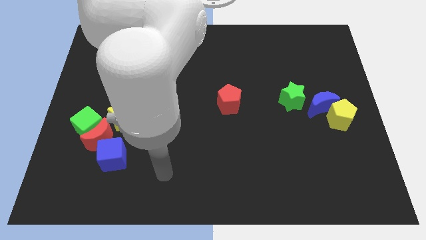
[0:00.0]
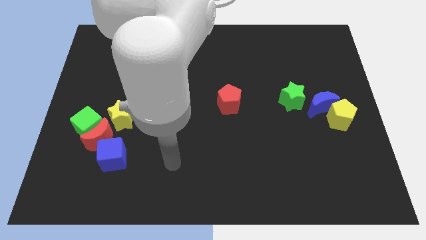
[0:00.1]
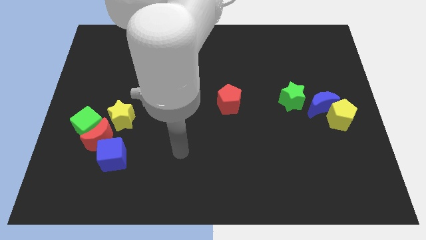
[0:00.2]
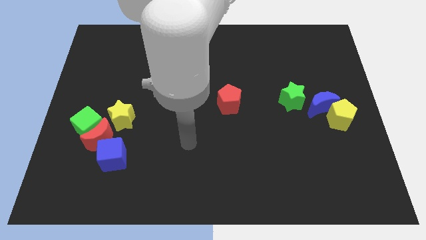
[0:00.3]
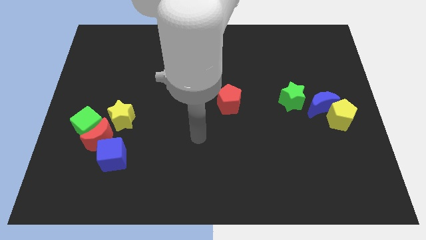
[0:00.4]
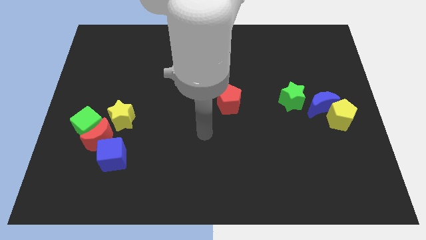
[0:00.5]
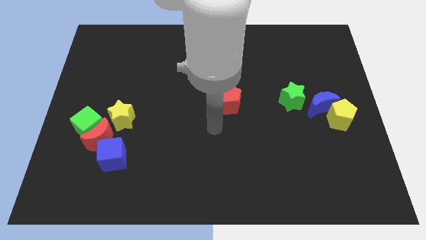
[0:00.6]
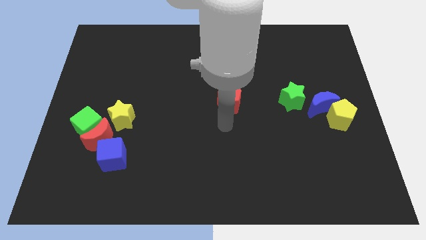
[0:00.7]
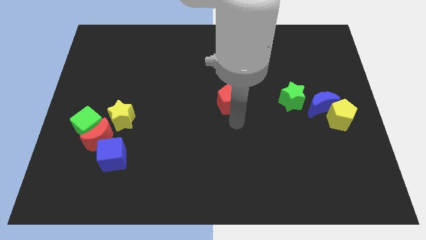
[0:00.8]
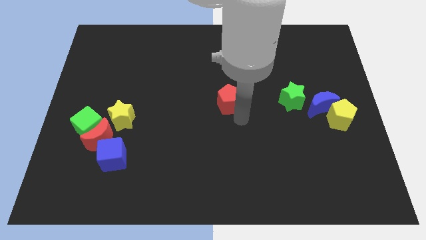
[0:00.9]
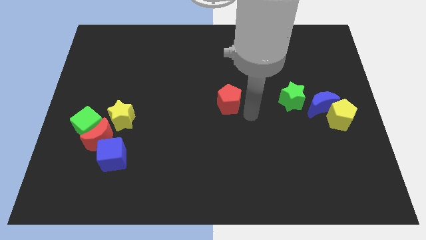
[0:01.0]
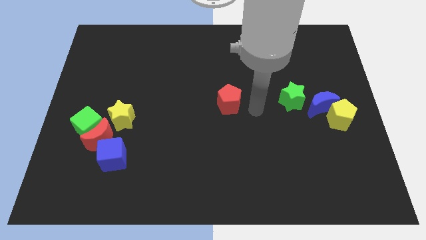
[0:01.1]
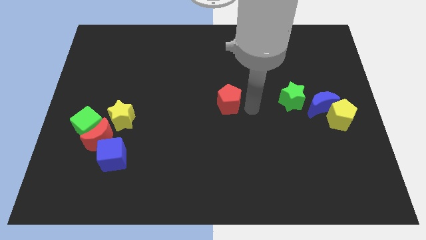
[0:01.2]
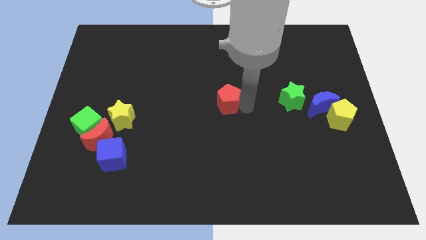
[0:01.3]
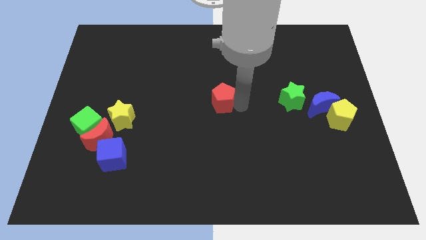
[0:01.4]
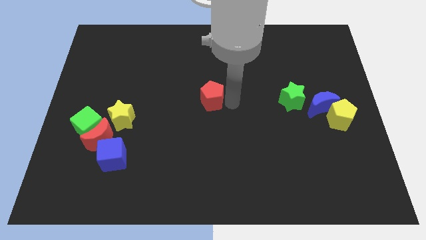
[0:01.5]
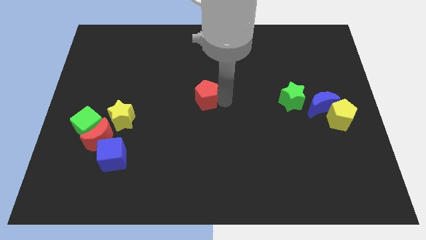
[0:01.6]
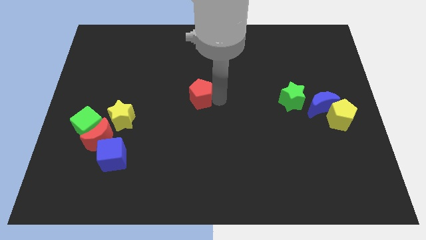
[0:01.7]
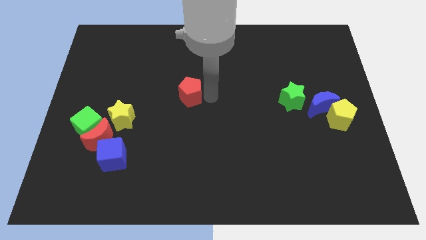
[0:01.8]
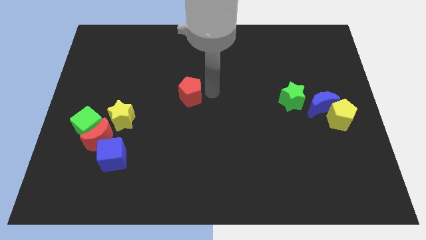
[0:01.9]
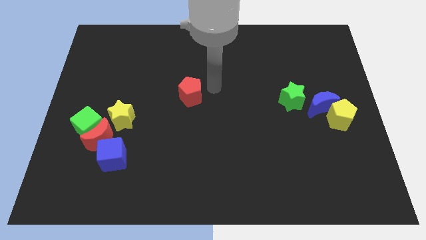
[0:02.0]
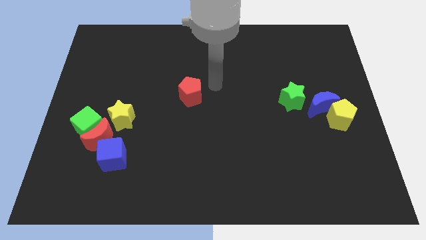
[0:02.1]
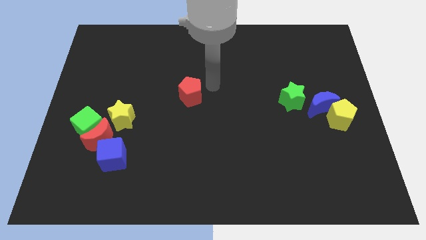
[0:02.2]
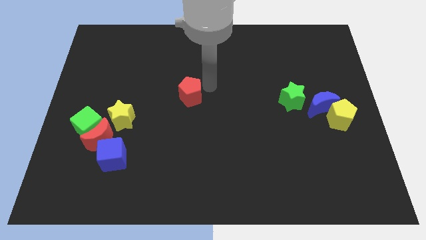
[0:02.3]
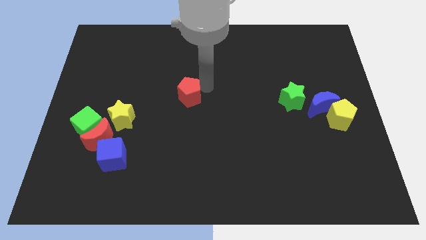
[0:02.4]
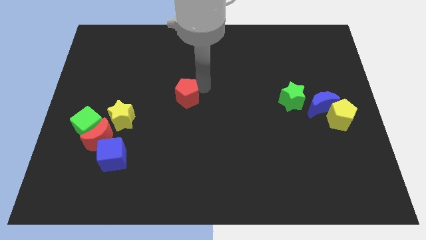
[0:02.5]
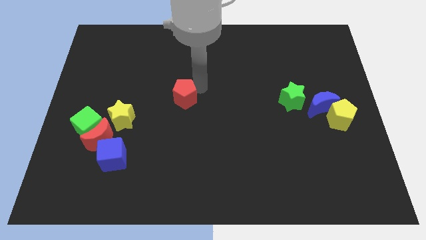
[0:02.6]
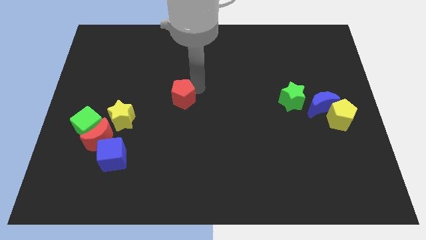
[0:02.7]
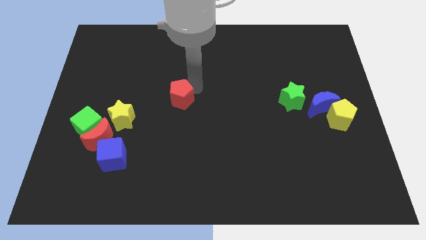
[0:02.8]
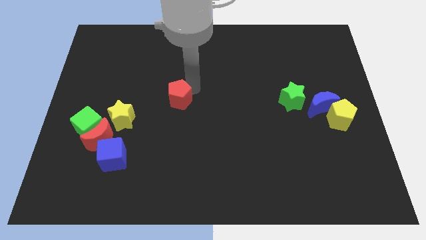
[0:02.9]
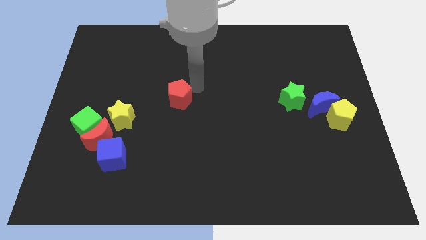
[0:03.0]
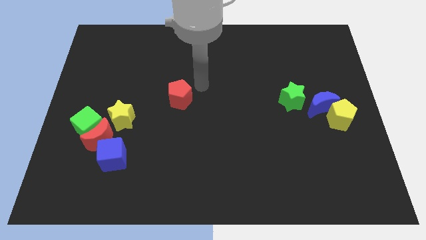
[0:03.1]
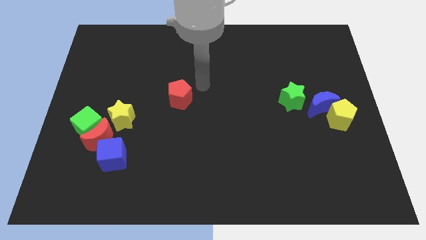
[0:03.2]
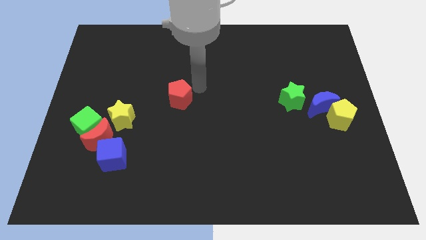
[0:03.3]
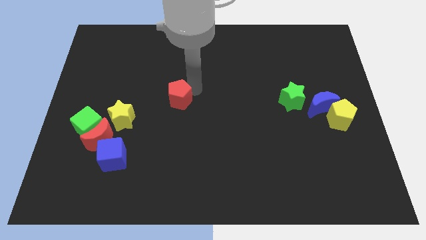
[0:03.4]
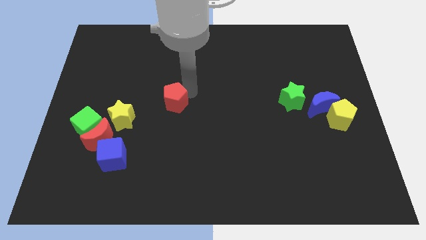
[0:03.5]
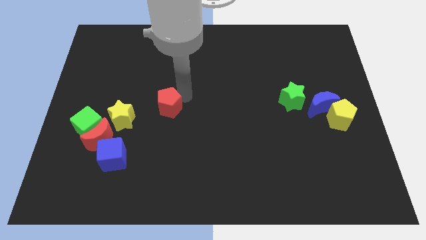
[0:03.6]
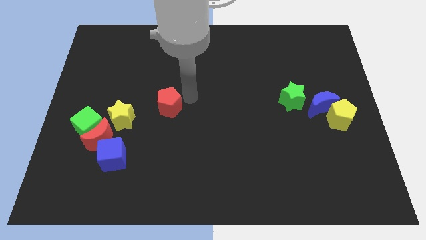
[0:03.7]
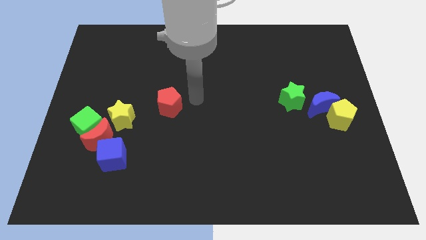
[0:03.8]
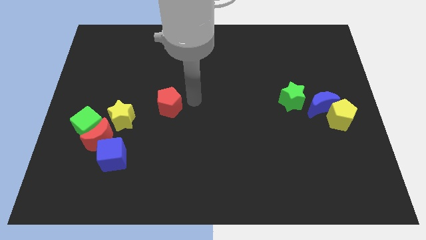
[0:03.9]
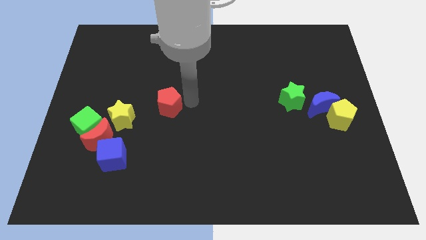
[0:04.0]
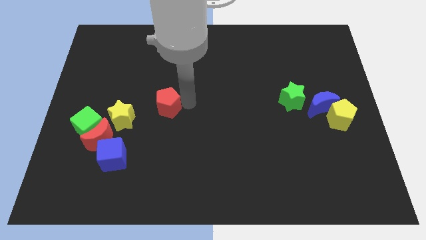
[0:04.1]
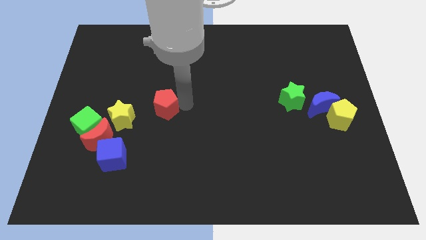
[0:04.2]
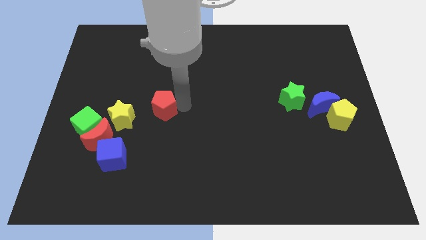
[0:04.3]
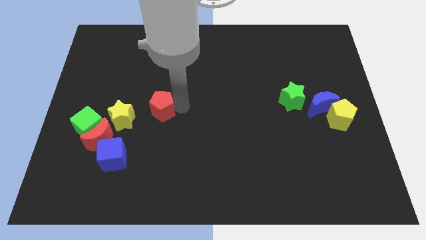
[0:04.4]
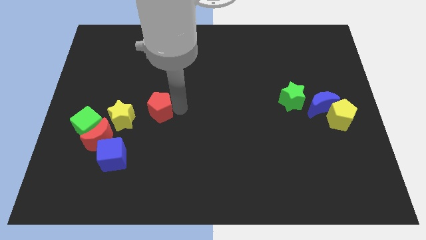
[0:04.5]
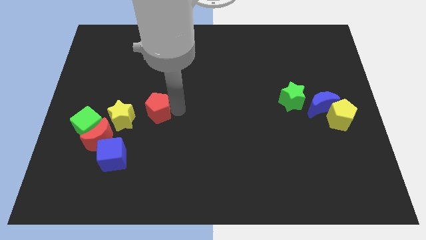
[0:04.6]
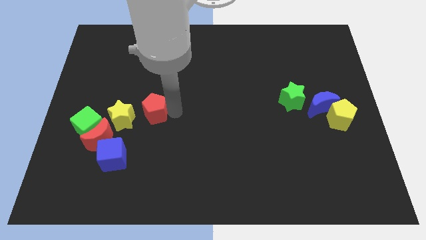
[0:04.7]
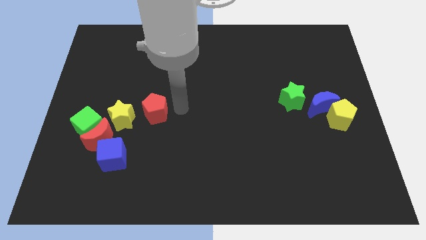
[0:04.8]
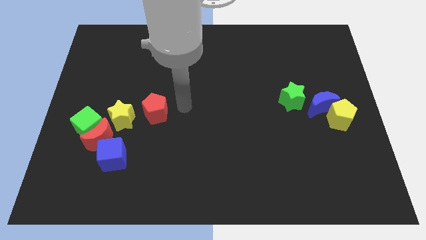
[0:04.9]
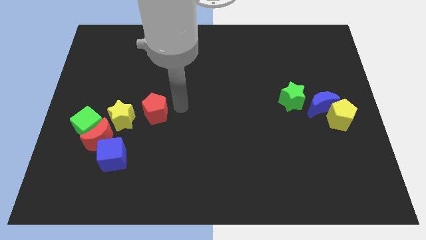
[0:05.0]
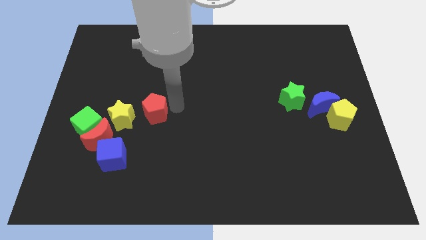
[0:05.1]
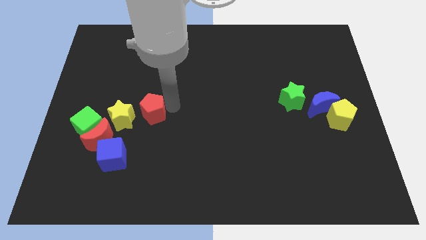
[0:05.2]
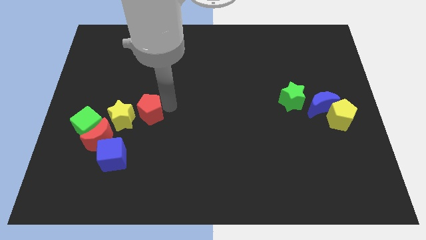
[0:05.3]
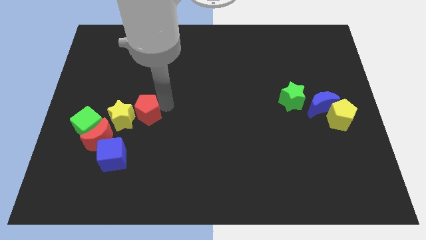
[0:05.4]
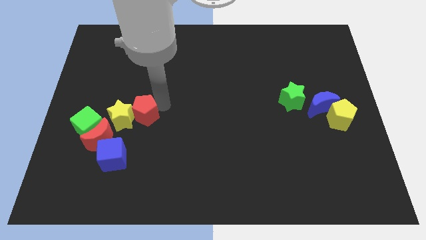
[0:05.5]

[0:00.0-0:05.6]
push the red pentagon close to the yellow star

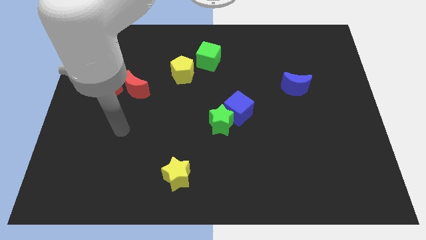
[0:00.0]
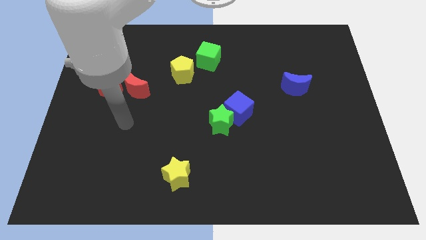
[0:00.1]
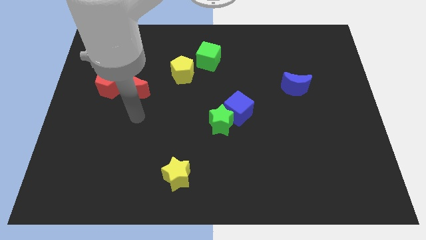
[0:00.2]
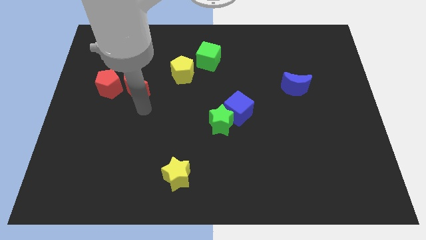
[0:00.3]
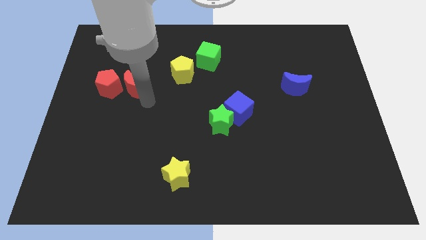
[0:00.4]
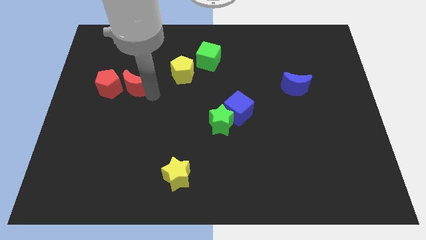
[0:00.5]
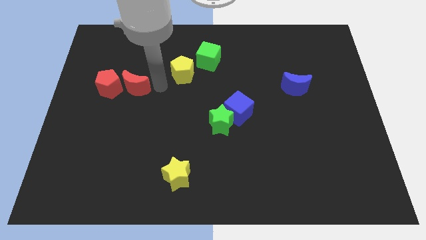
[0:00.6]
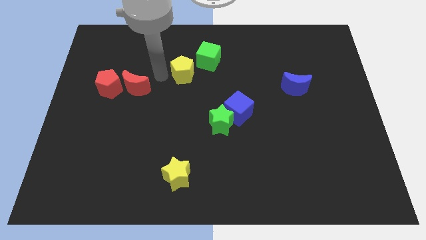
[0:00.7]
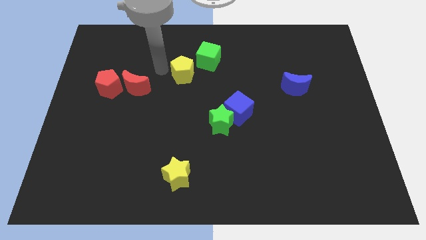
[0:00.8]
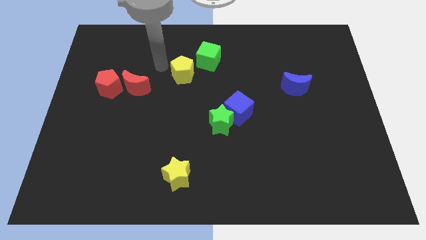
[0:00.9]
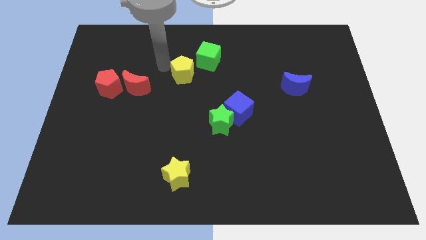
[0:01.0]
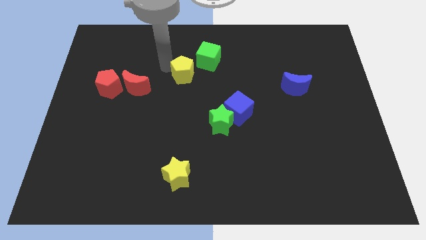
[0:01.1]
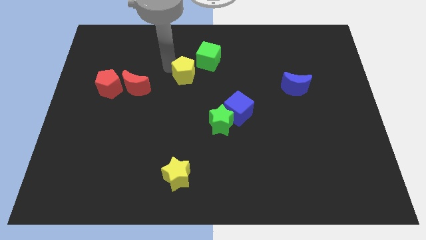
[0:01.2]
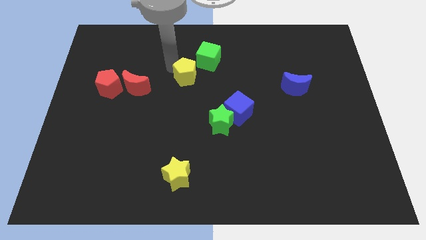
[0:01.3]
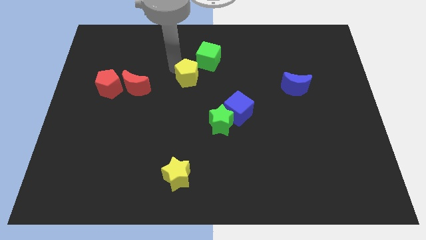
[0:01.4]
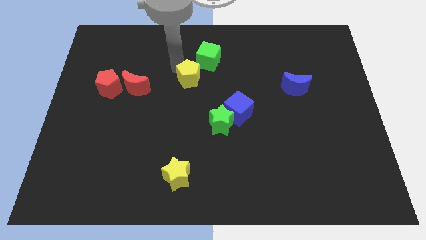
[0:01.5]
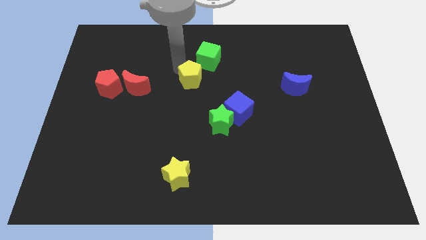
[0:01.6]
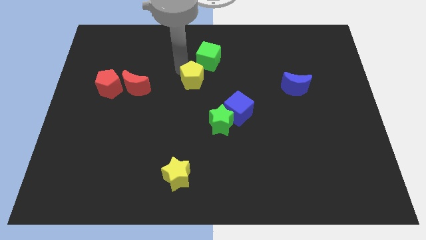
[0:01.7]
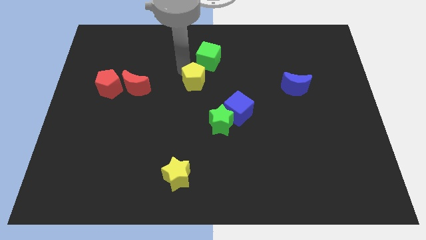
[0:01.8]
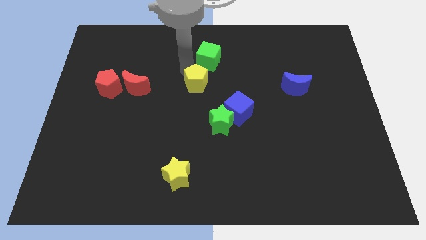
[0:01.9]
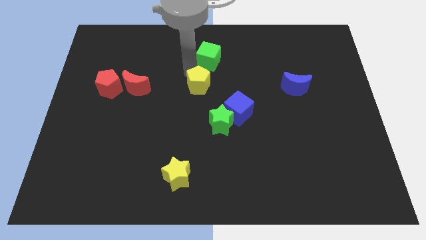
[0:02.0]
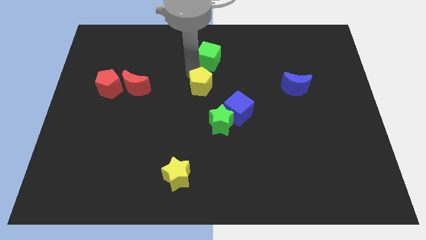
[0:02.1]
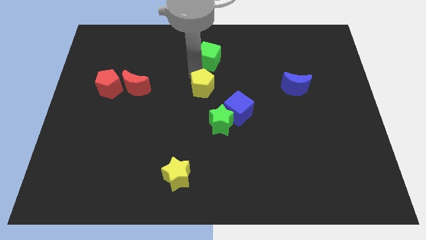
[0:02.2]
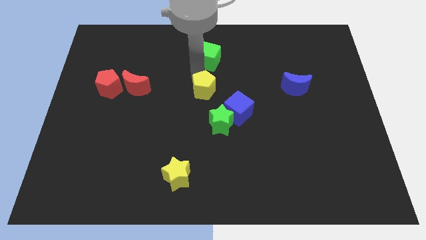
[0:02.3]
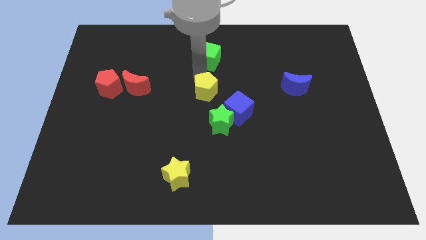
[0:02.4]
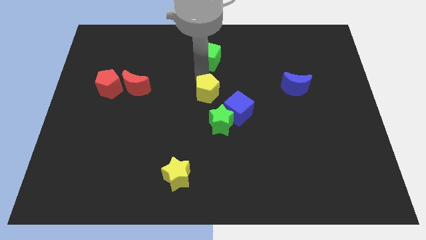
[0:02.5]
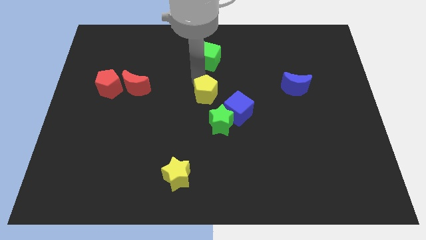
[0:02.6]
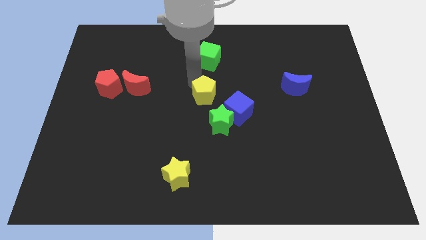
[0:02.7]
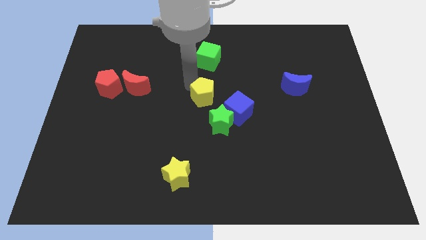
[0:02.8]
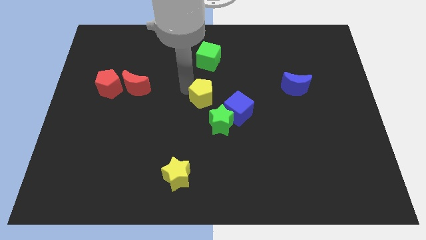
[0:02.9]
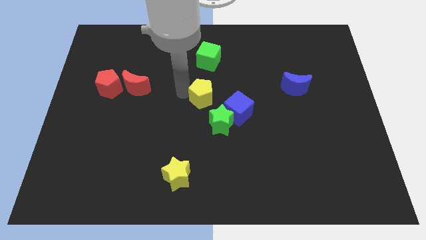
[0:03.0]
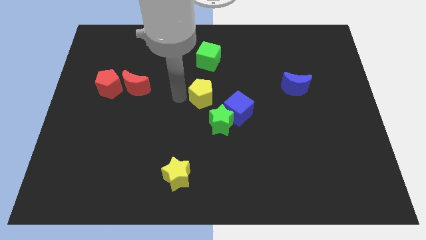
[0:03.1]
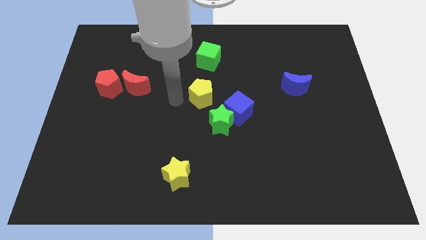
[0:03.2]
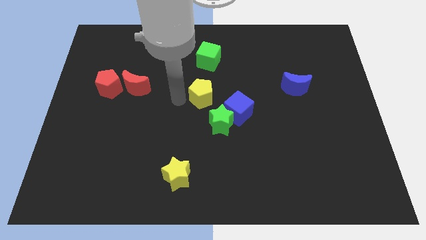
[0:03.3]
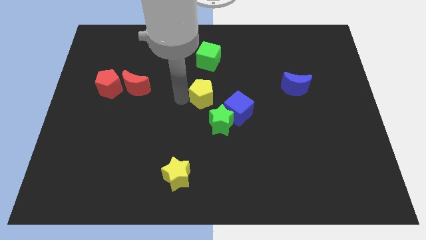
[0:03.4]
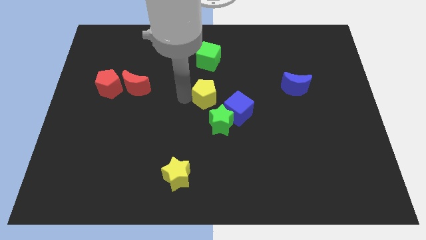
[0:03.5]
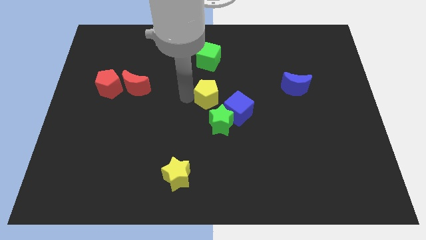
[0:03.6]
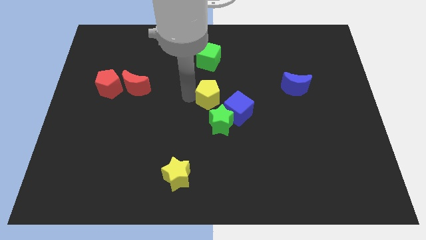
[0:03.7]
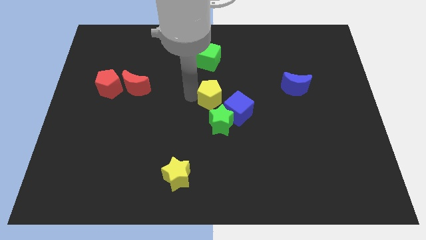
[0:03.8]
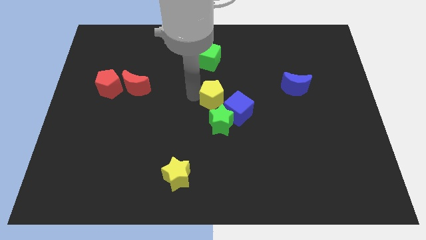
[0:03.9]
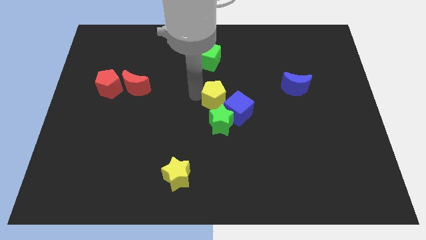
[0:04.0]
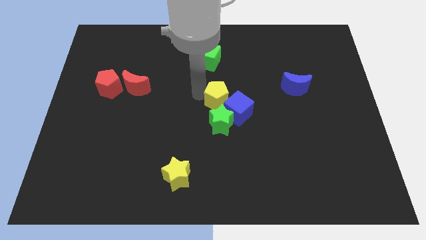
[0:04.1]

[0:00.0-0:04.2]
push the yellow pentagon towards the blue cube
